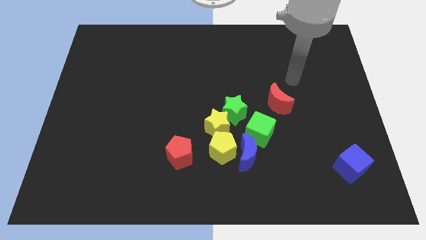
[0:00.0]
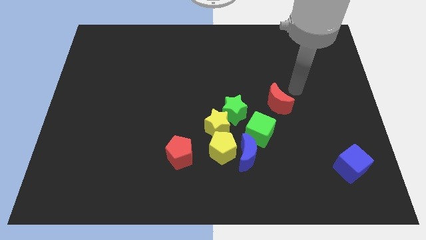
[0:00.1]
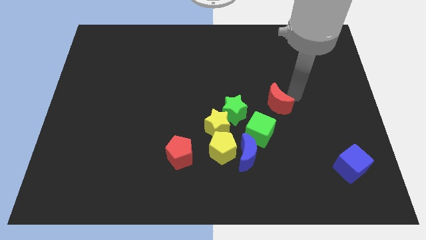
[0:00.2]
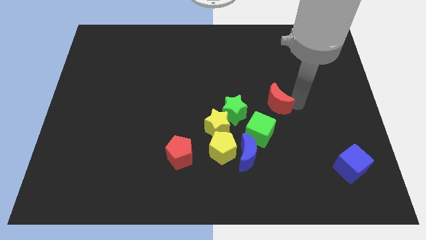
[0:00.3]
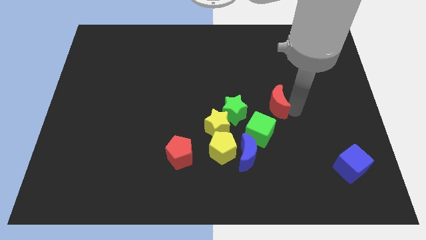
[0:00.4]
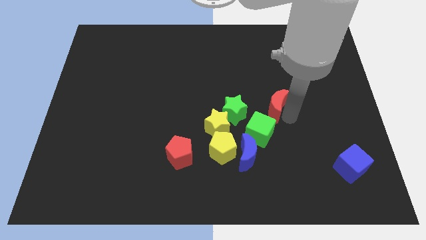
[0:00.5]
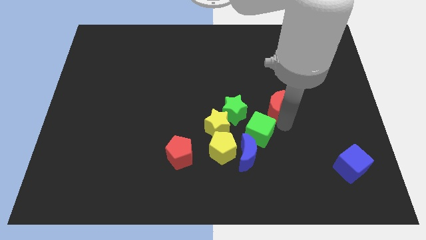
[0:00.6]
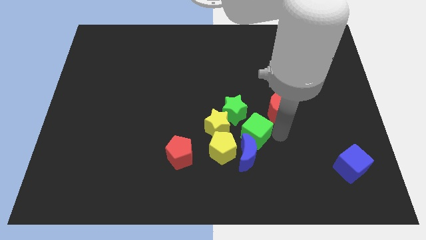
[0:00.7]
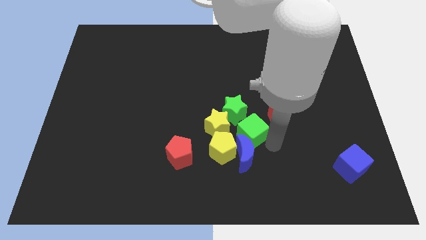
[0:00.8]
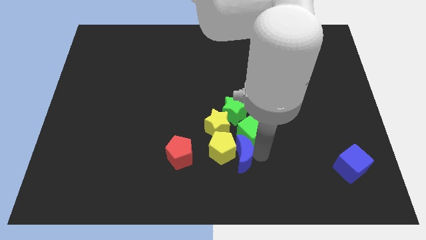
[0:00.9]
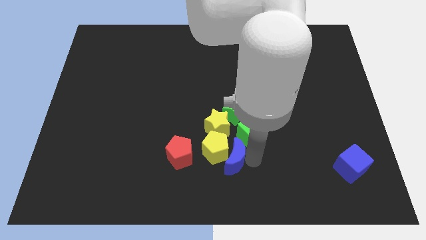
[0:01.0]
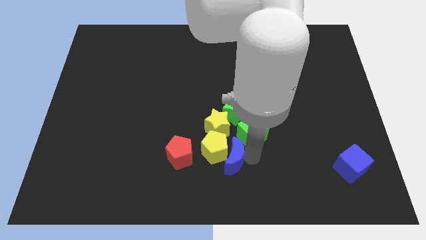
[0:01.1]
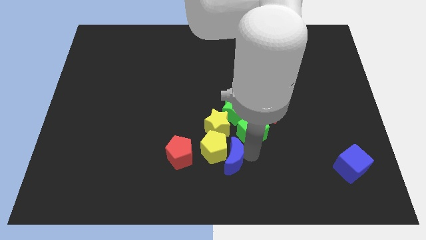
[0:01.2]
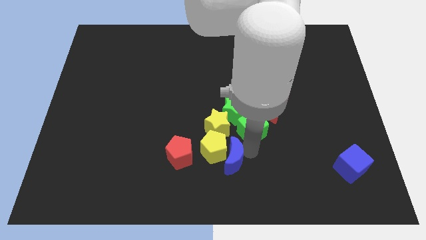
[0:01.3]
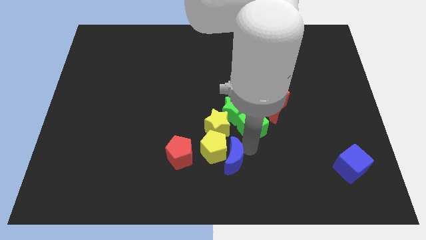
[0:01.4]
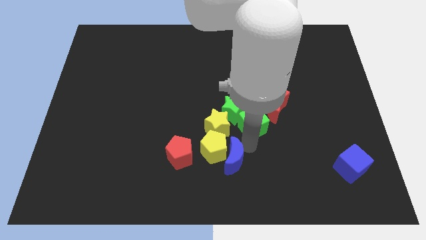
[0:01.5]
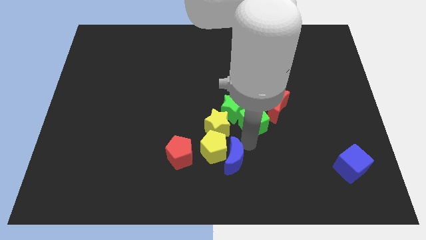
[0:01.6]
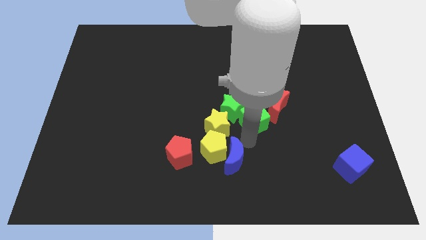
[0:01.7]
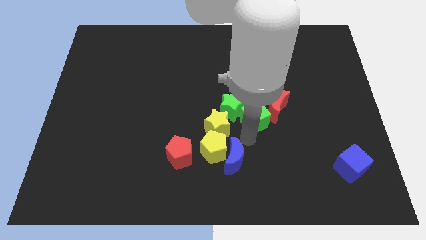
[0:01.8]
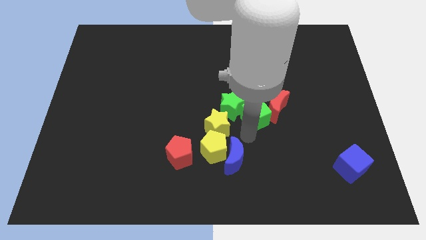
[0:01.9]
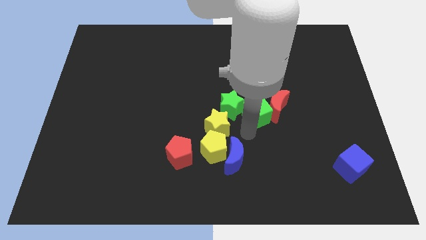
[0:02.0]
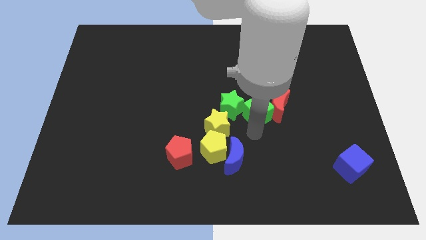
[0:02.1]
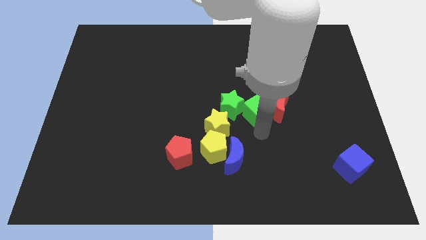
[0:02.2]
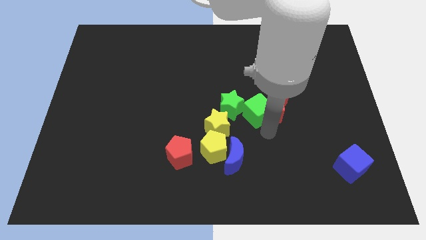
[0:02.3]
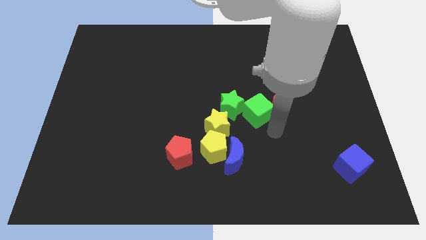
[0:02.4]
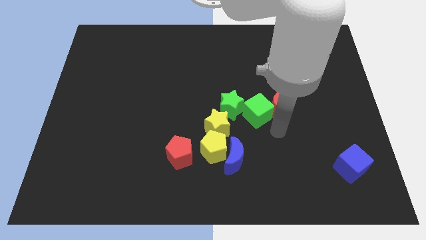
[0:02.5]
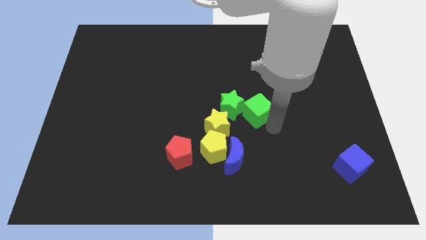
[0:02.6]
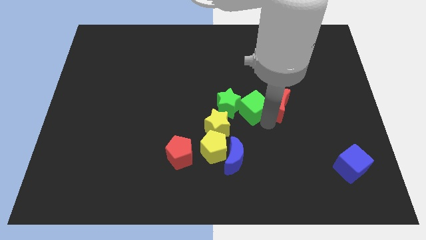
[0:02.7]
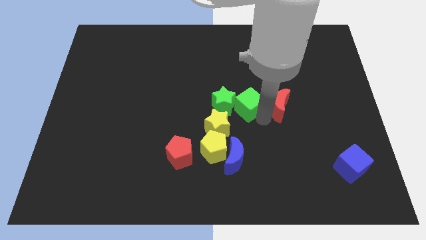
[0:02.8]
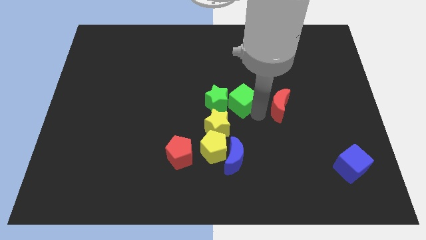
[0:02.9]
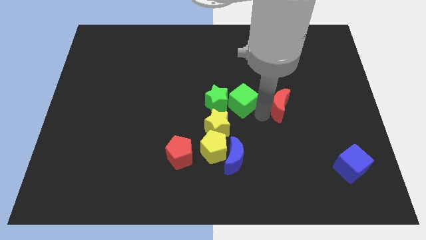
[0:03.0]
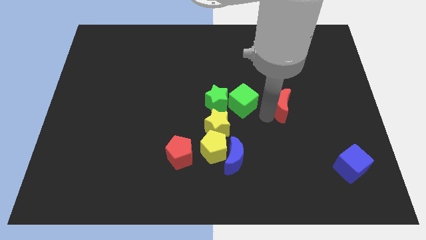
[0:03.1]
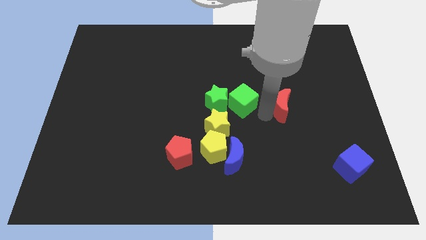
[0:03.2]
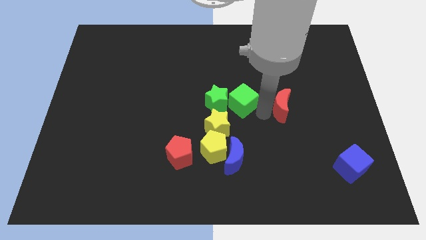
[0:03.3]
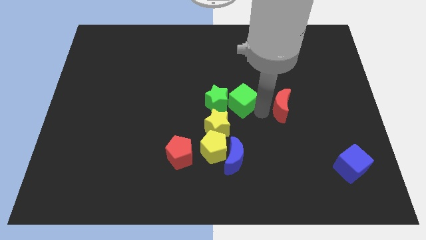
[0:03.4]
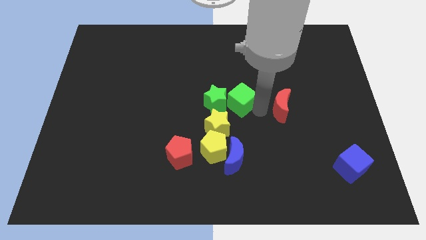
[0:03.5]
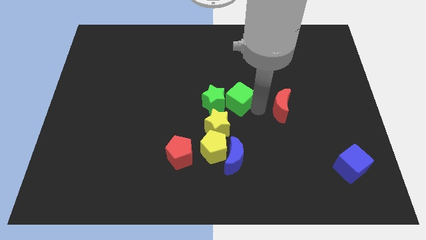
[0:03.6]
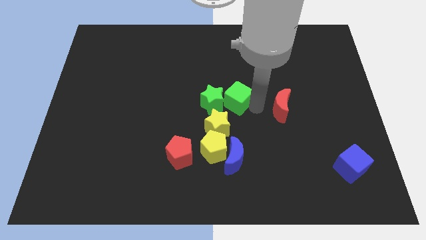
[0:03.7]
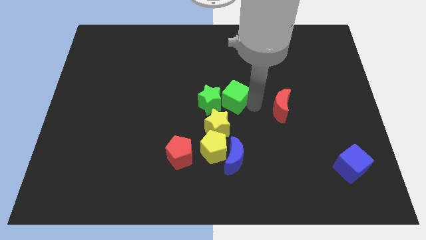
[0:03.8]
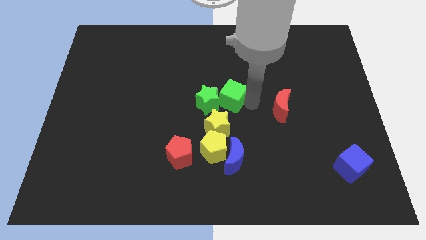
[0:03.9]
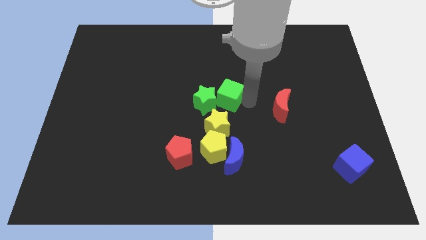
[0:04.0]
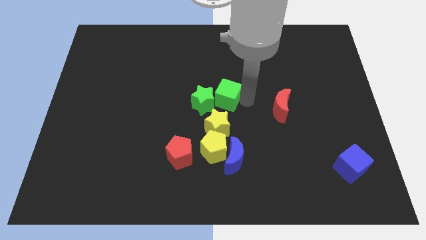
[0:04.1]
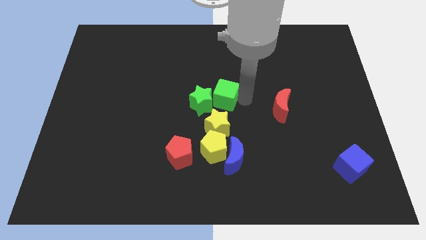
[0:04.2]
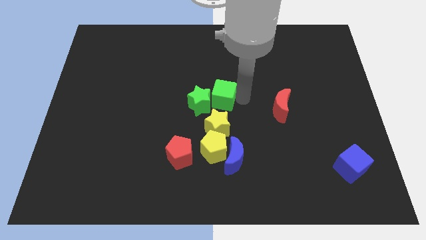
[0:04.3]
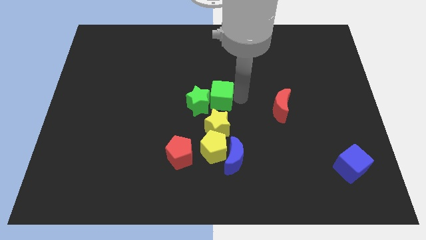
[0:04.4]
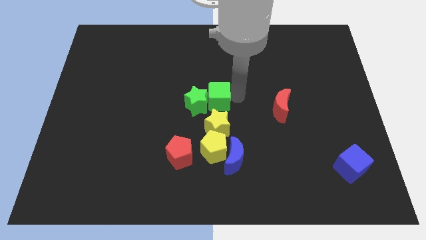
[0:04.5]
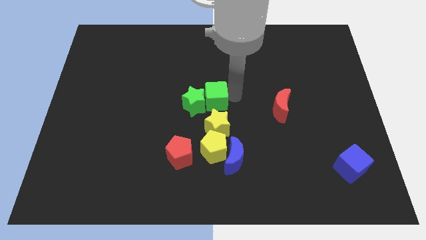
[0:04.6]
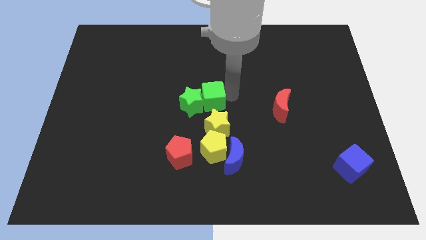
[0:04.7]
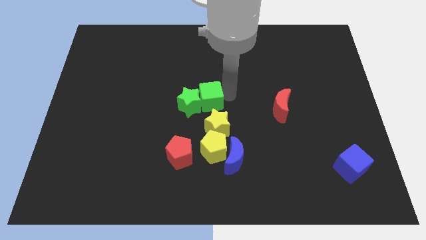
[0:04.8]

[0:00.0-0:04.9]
slide the green cube left somewhat

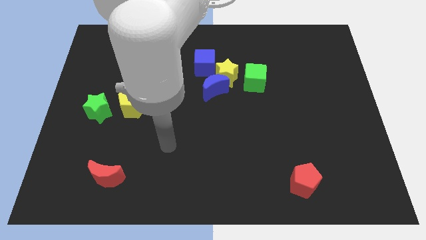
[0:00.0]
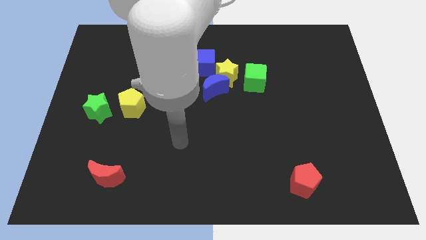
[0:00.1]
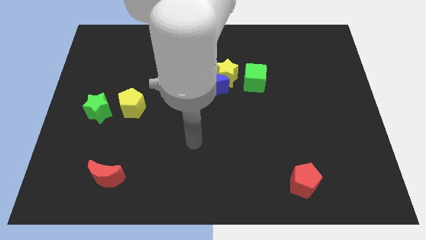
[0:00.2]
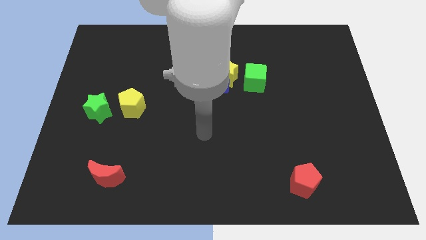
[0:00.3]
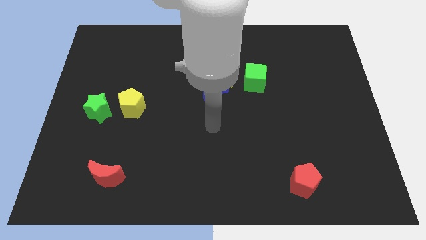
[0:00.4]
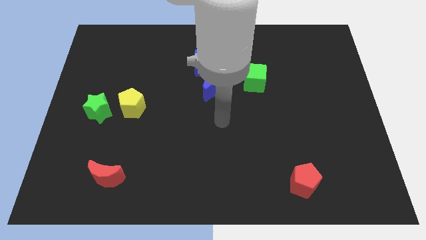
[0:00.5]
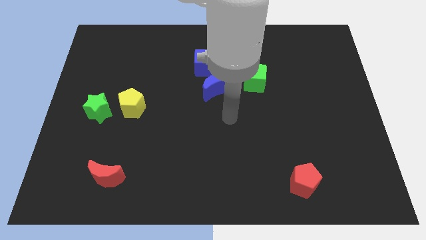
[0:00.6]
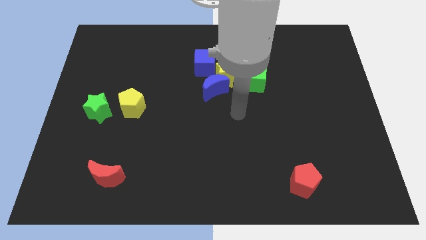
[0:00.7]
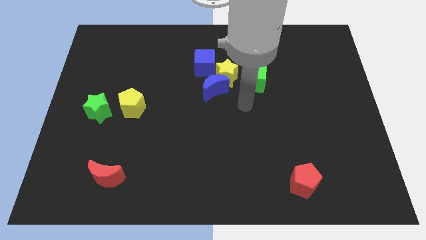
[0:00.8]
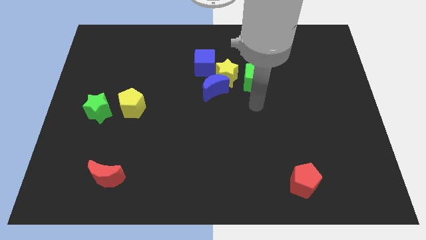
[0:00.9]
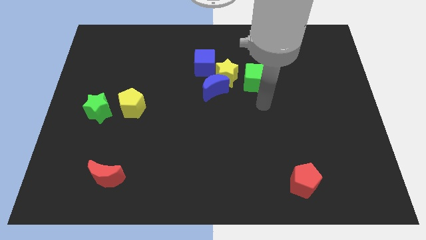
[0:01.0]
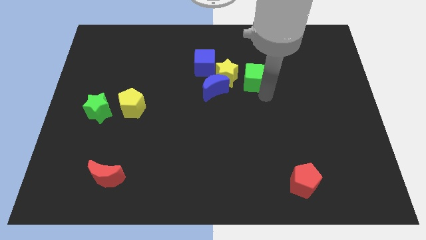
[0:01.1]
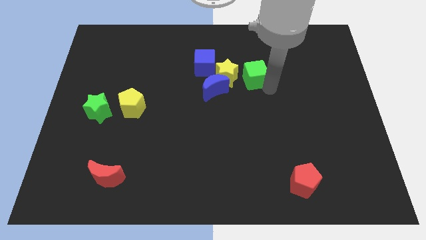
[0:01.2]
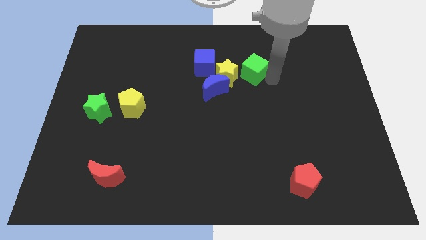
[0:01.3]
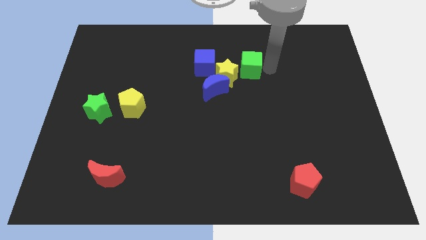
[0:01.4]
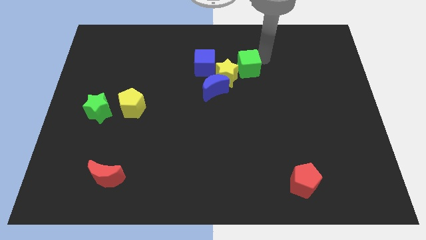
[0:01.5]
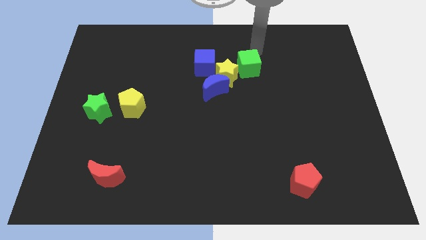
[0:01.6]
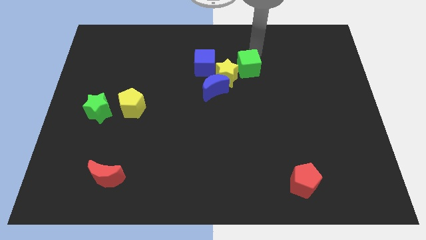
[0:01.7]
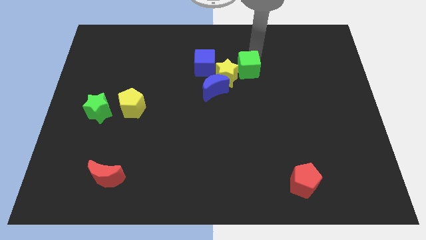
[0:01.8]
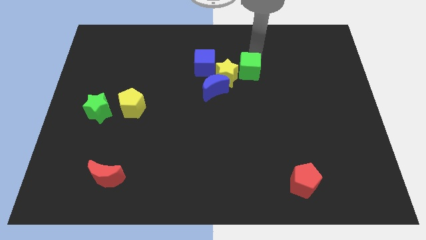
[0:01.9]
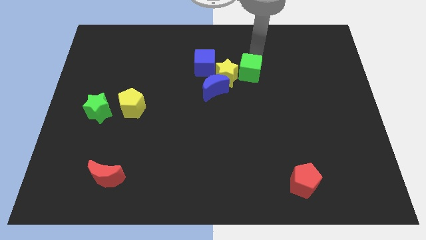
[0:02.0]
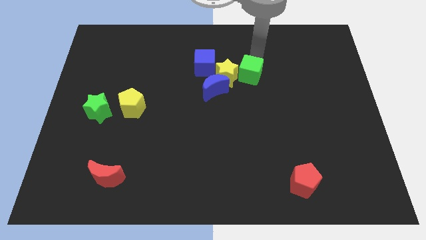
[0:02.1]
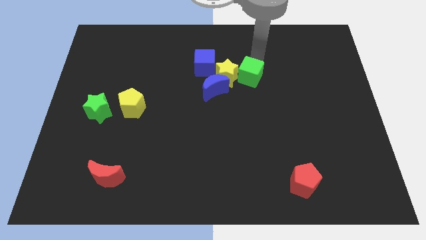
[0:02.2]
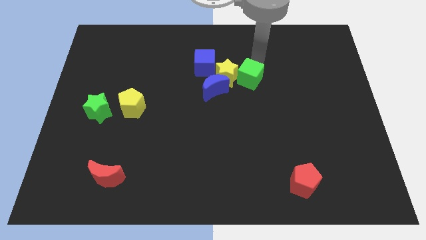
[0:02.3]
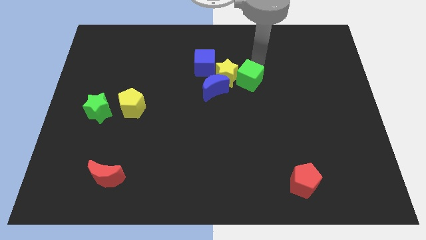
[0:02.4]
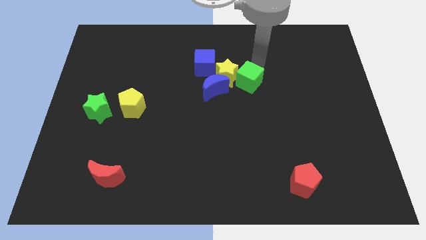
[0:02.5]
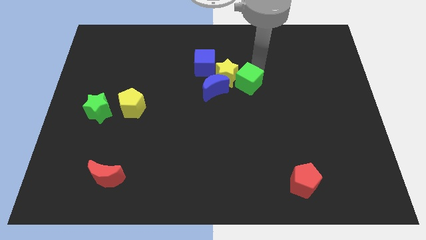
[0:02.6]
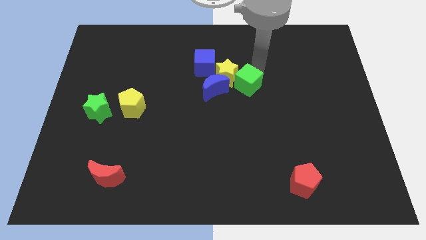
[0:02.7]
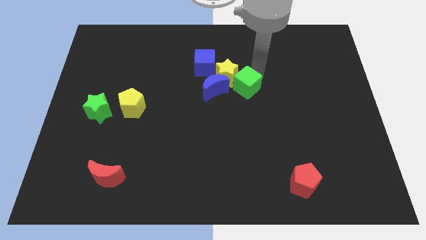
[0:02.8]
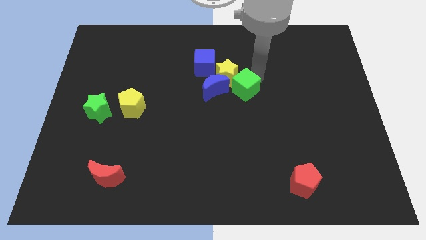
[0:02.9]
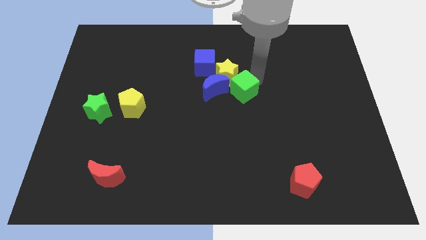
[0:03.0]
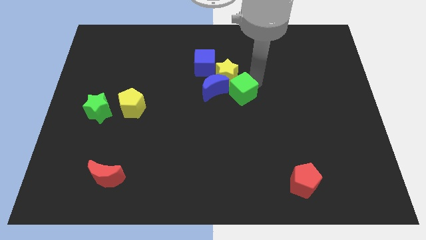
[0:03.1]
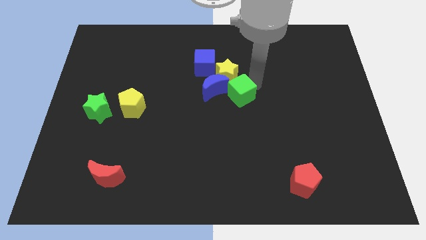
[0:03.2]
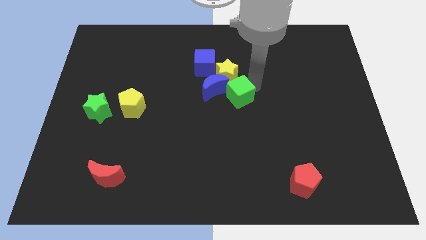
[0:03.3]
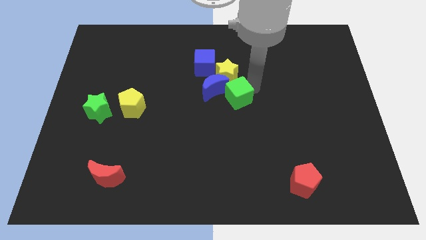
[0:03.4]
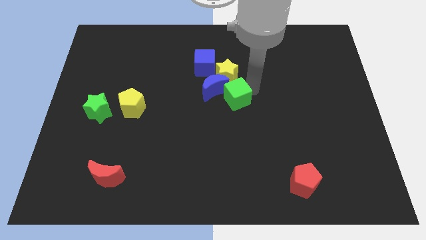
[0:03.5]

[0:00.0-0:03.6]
move the green cube downwards and then left somewhat
